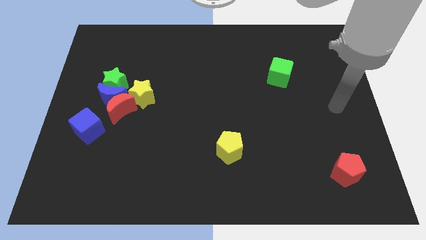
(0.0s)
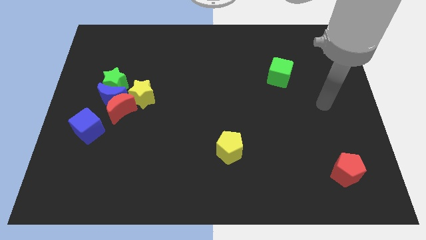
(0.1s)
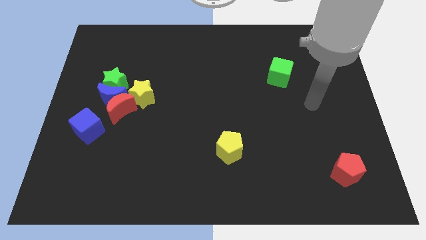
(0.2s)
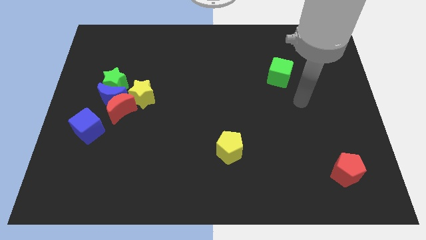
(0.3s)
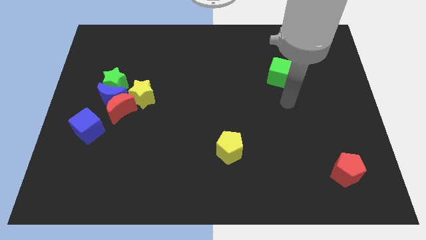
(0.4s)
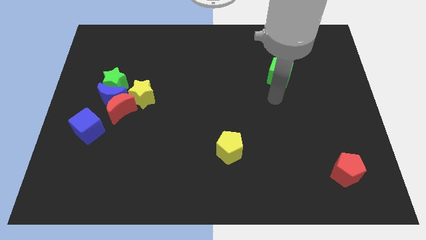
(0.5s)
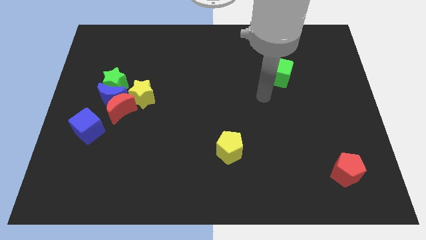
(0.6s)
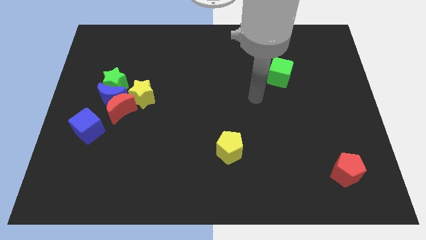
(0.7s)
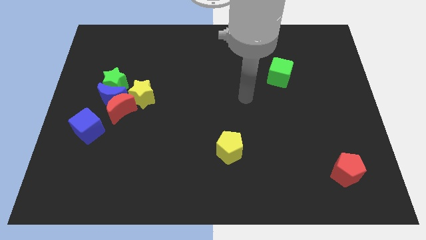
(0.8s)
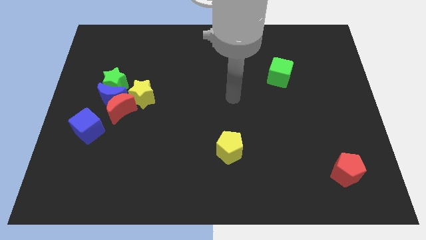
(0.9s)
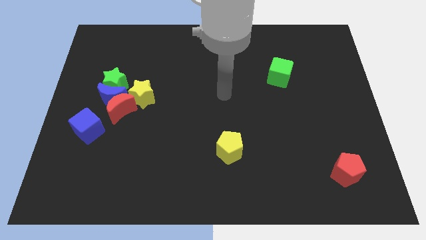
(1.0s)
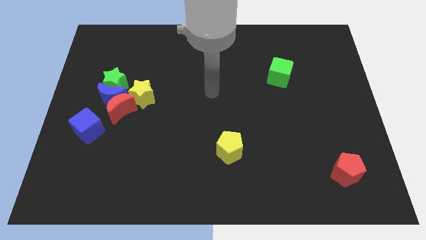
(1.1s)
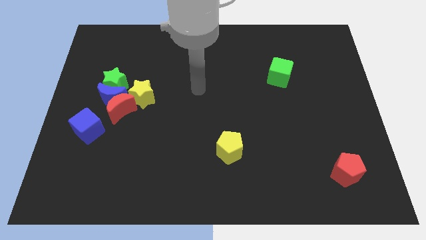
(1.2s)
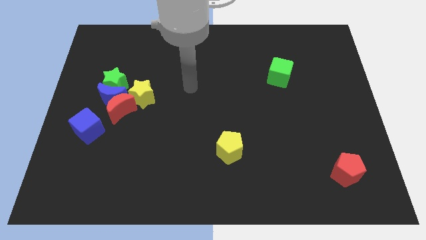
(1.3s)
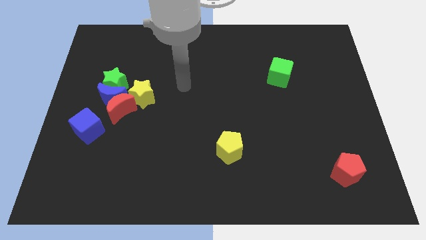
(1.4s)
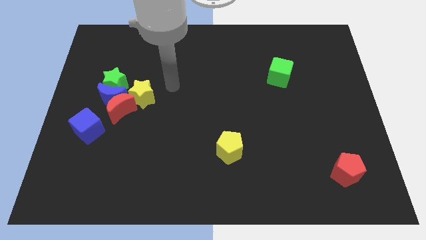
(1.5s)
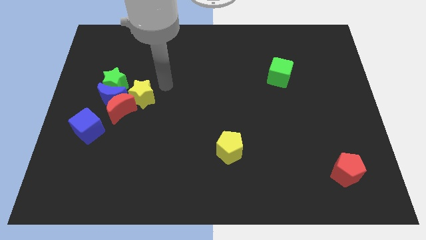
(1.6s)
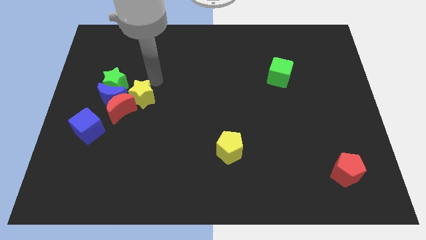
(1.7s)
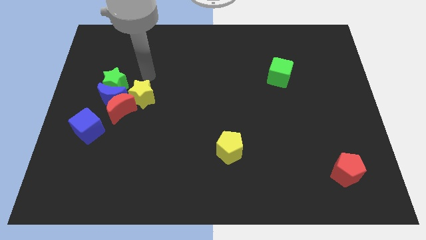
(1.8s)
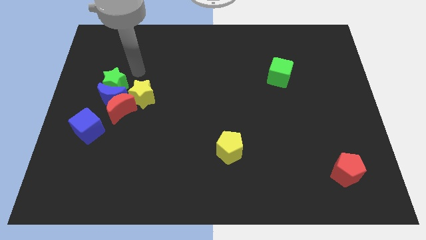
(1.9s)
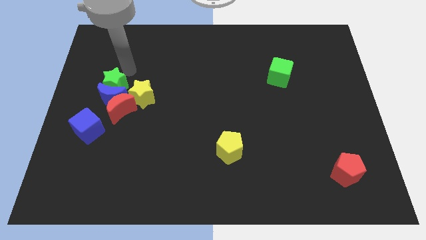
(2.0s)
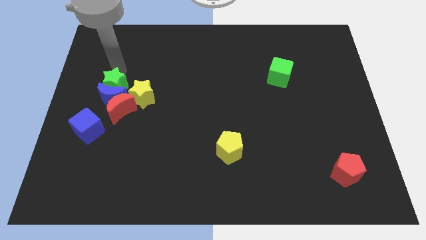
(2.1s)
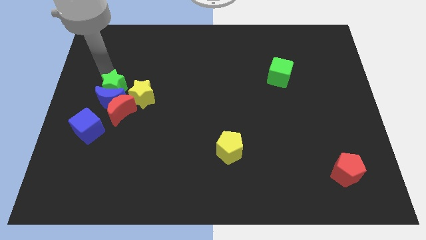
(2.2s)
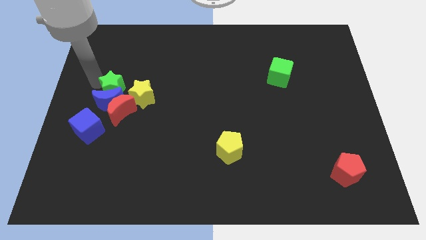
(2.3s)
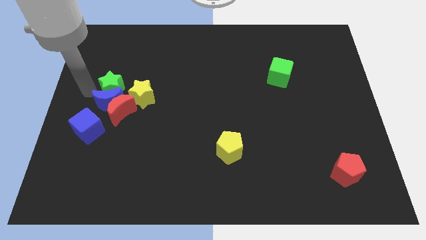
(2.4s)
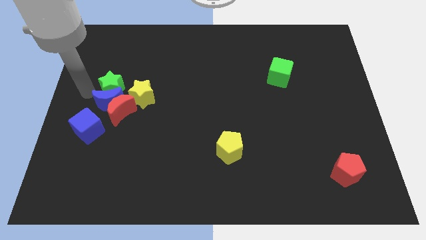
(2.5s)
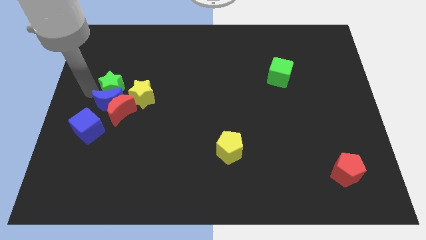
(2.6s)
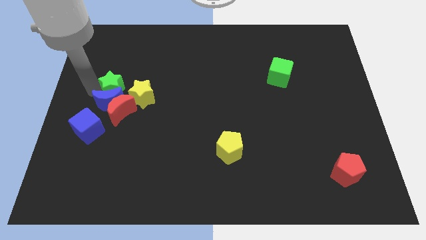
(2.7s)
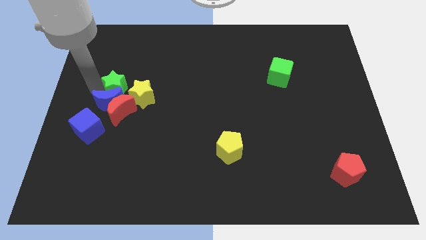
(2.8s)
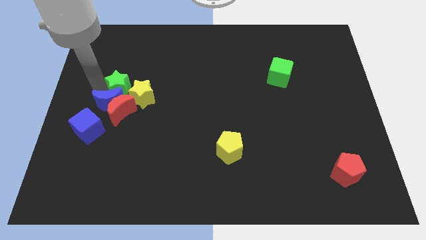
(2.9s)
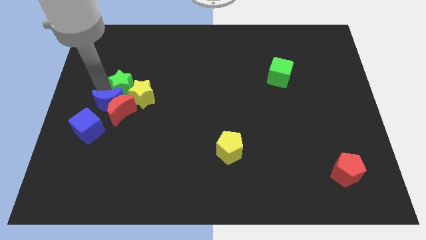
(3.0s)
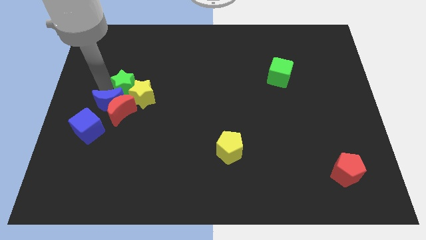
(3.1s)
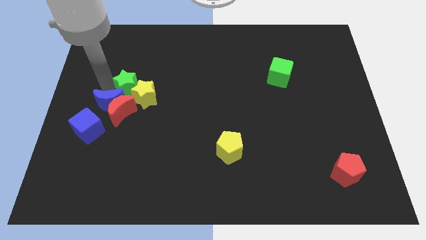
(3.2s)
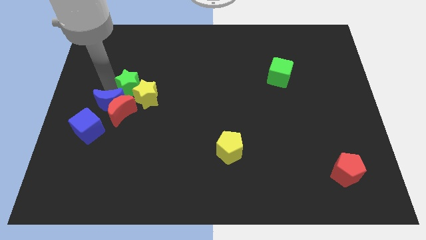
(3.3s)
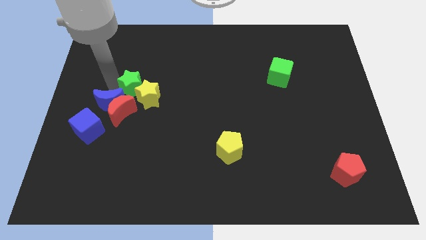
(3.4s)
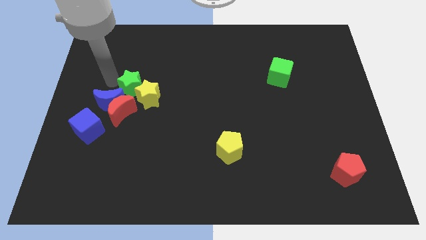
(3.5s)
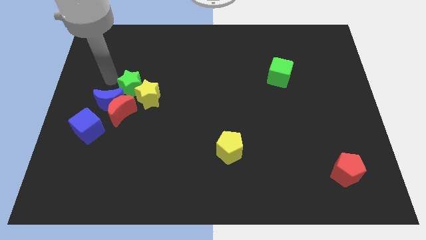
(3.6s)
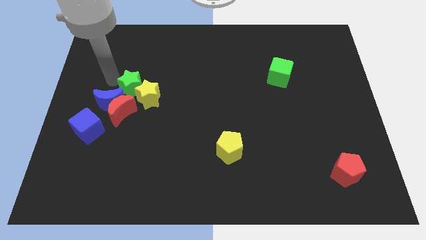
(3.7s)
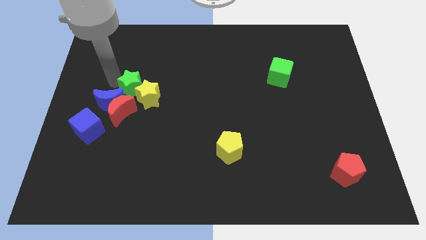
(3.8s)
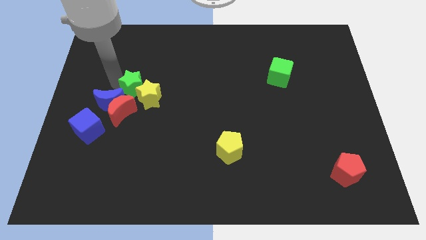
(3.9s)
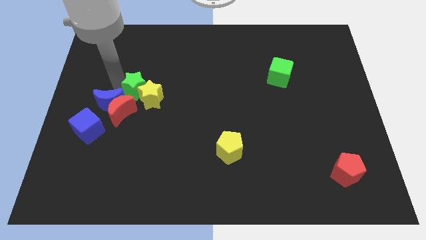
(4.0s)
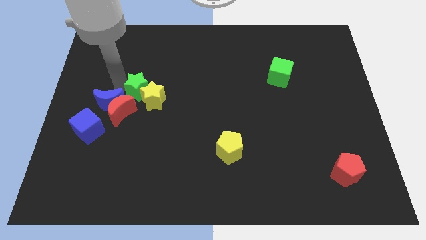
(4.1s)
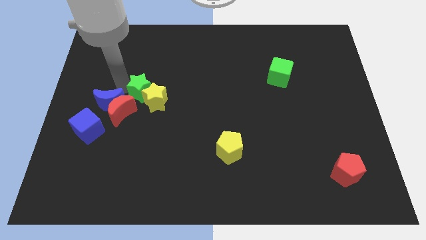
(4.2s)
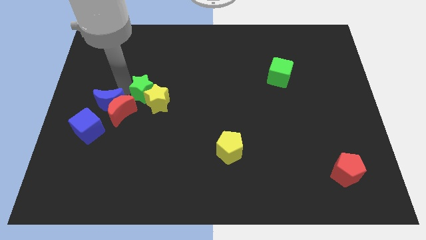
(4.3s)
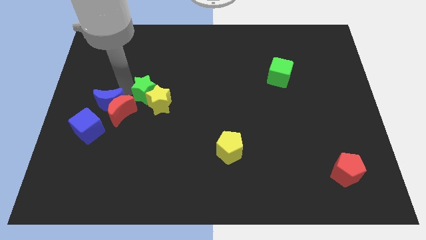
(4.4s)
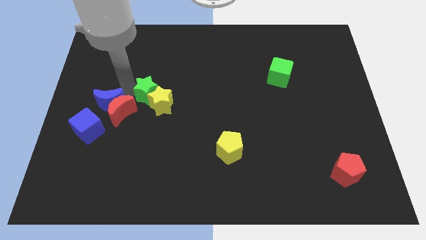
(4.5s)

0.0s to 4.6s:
push the green star down and right diagonally a little bit

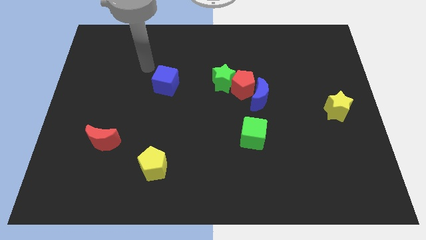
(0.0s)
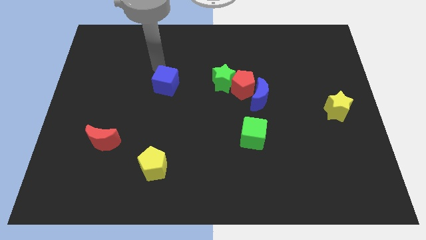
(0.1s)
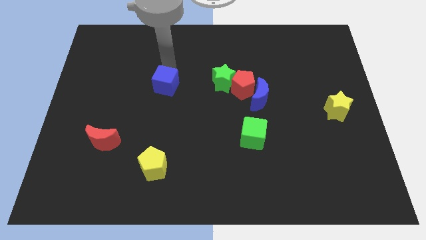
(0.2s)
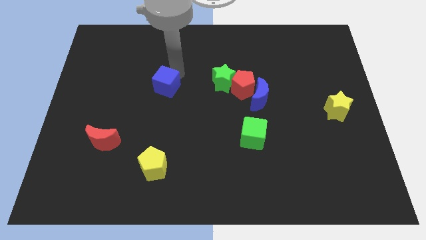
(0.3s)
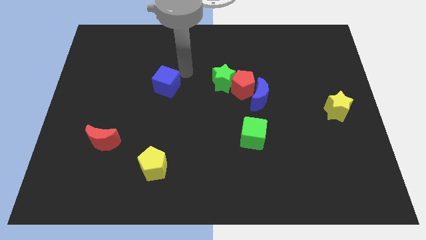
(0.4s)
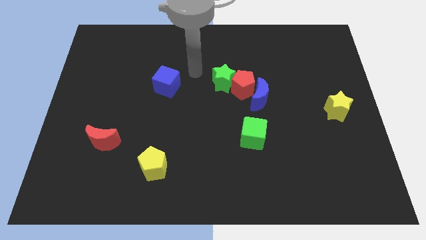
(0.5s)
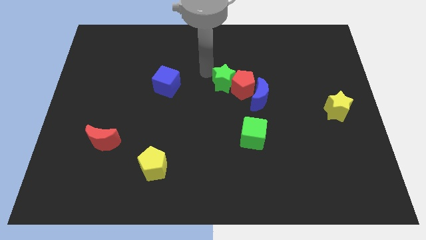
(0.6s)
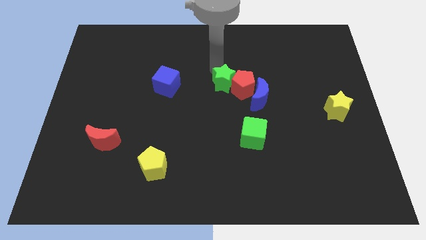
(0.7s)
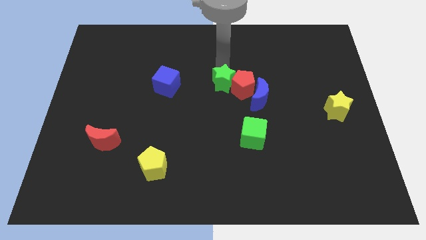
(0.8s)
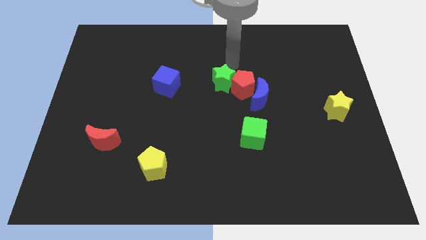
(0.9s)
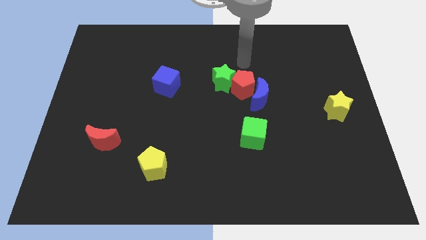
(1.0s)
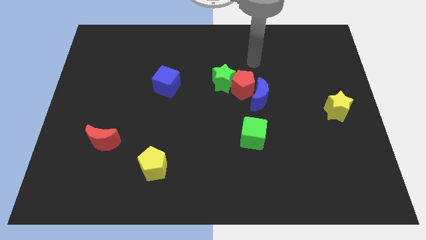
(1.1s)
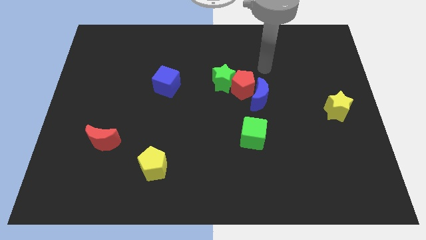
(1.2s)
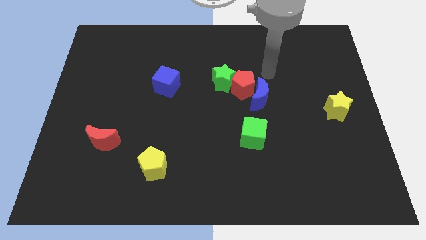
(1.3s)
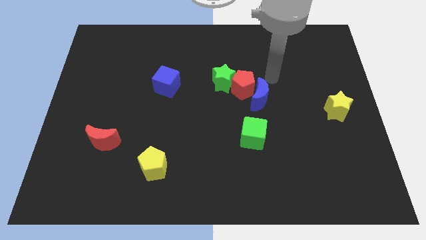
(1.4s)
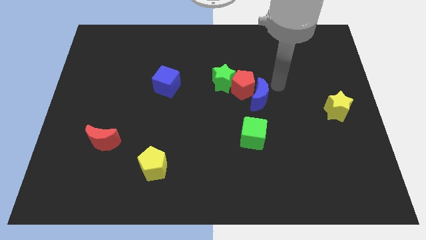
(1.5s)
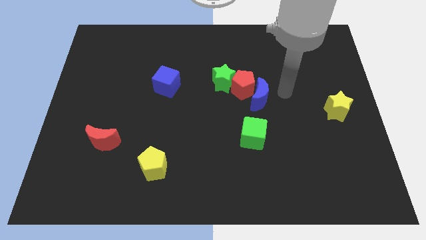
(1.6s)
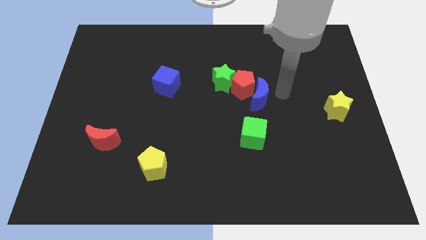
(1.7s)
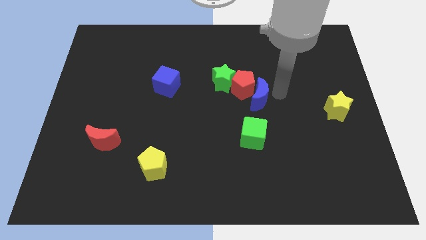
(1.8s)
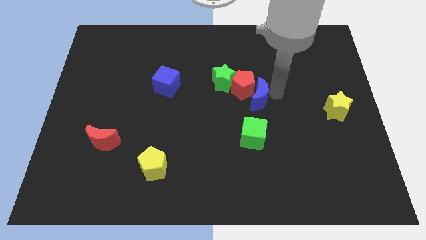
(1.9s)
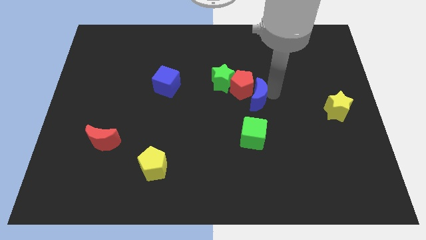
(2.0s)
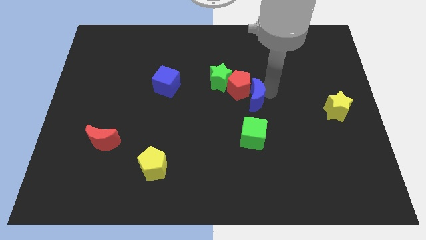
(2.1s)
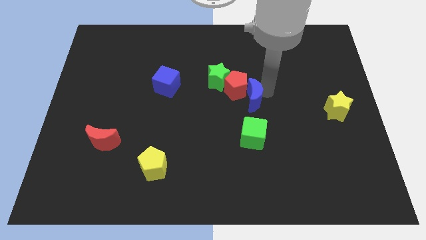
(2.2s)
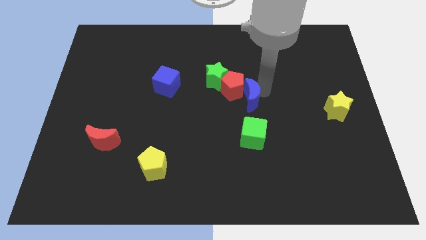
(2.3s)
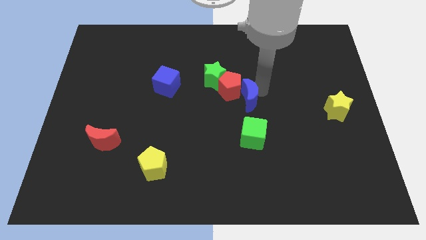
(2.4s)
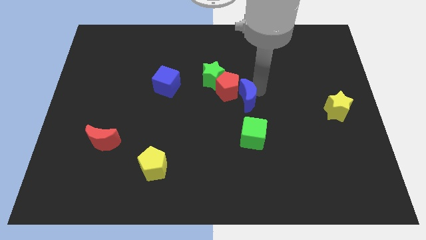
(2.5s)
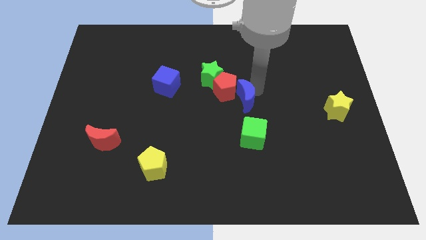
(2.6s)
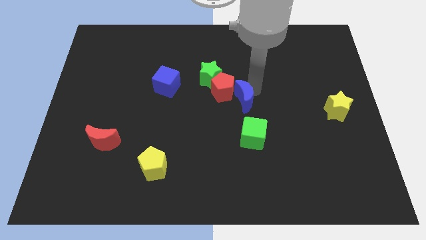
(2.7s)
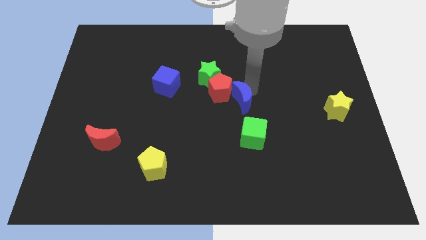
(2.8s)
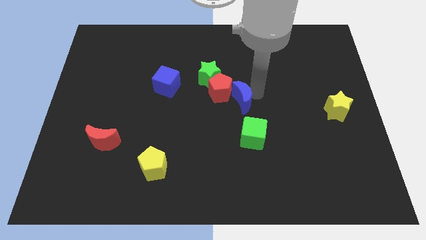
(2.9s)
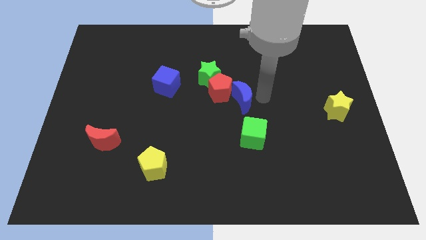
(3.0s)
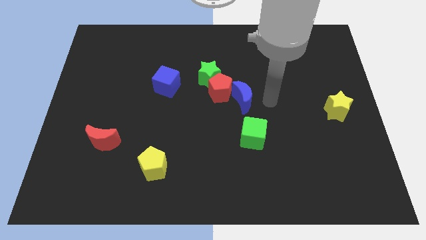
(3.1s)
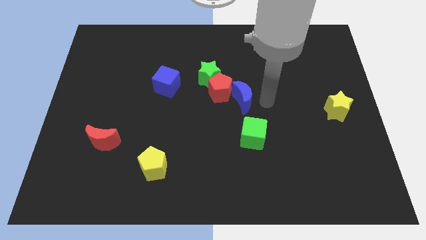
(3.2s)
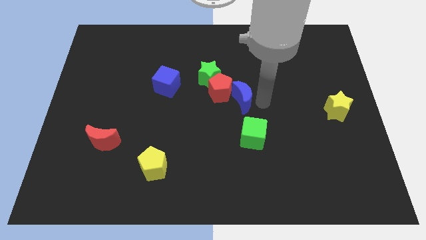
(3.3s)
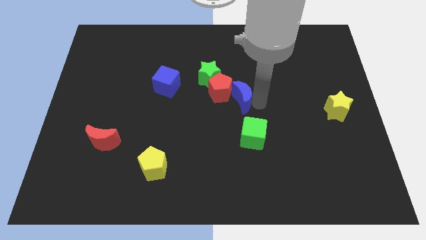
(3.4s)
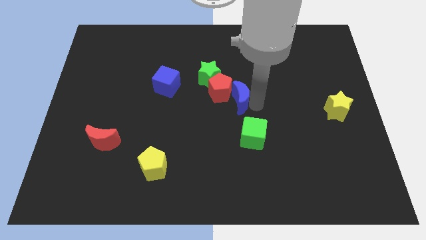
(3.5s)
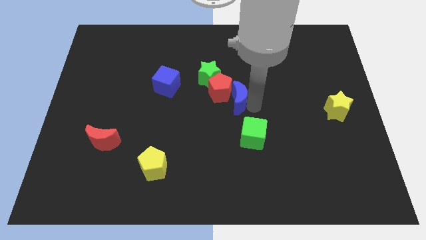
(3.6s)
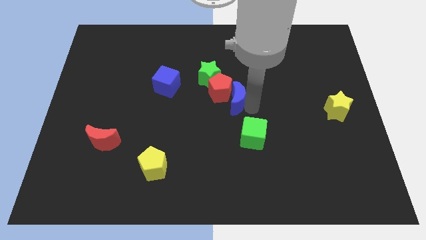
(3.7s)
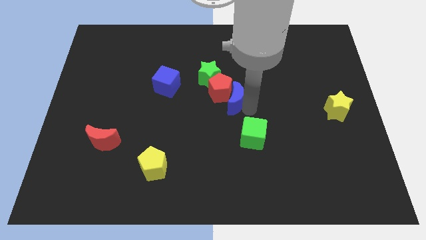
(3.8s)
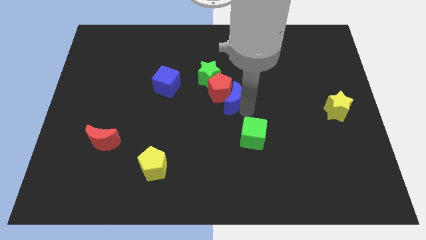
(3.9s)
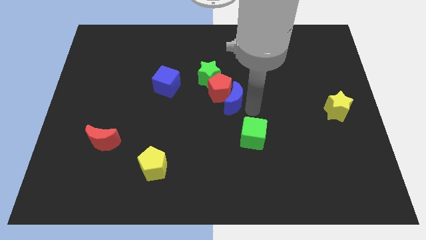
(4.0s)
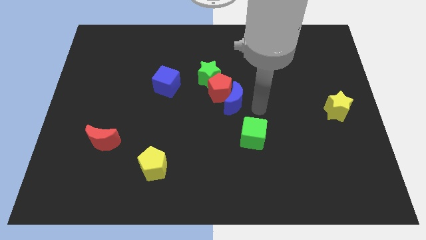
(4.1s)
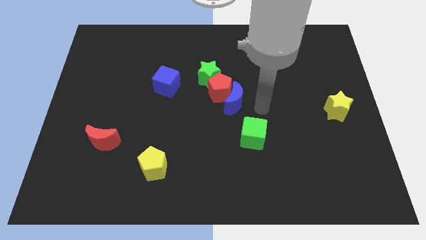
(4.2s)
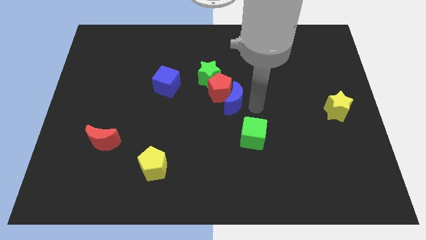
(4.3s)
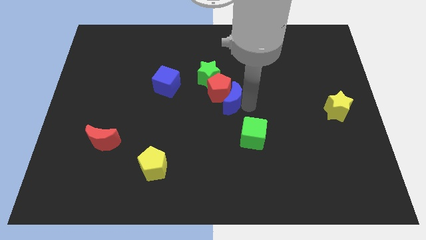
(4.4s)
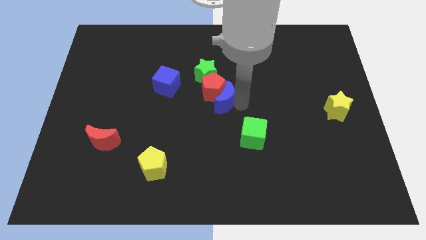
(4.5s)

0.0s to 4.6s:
slide the blue moon to the left a little bit
